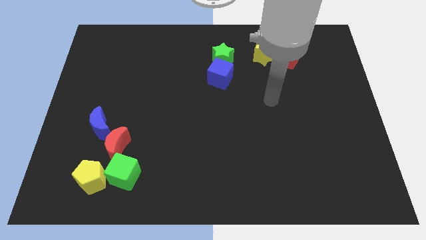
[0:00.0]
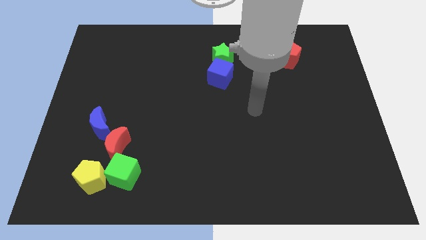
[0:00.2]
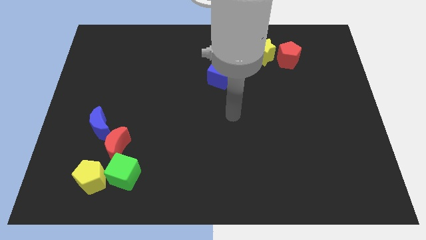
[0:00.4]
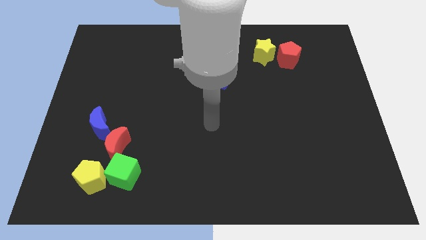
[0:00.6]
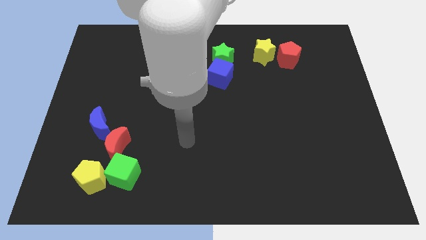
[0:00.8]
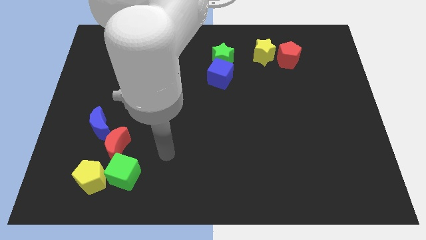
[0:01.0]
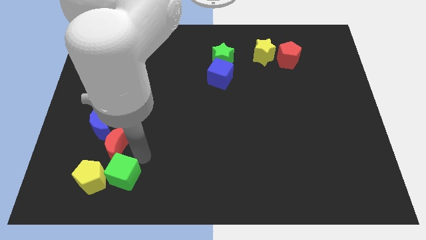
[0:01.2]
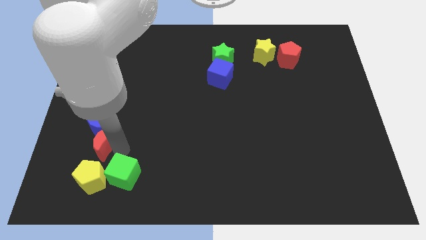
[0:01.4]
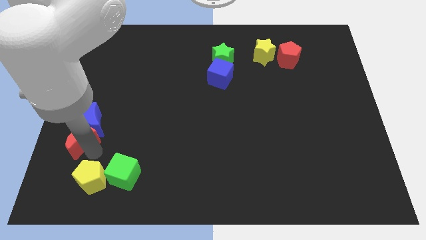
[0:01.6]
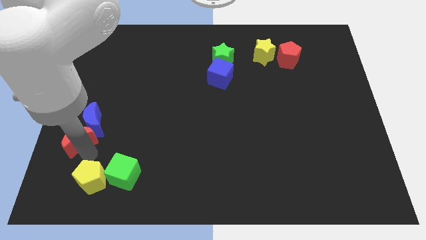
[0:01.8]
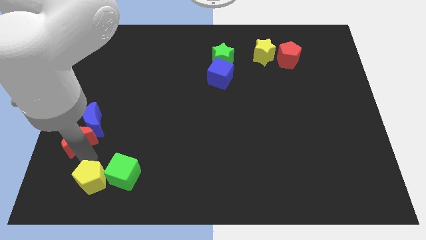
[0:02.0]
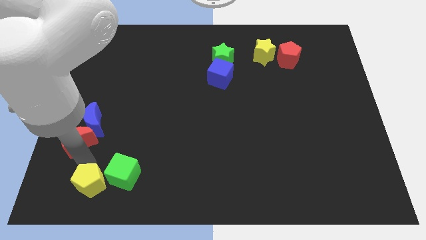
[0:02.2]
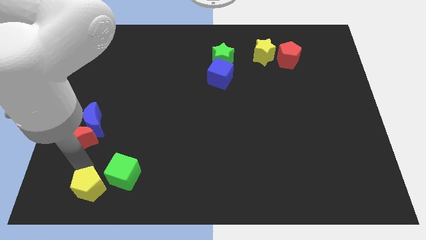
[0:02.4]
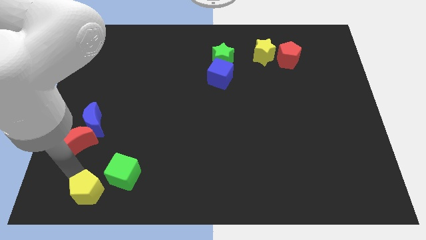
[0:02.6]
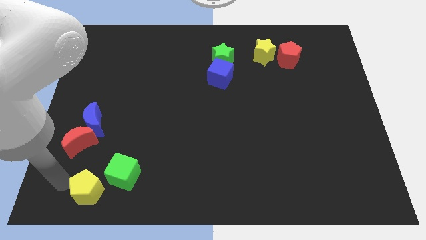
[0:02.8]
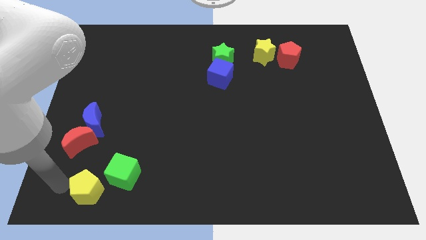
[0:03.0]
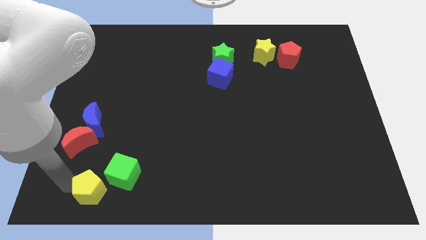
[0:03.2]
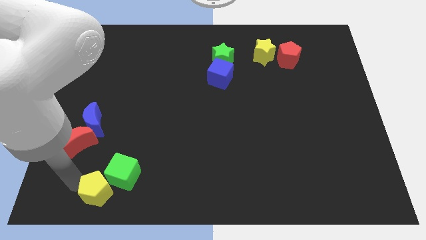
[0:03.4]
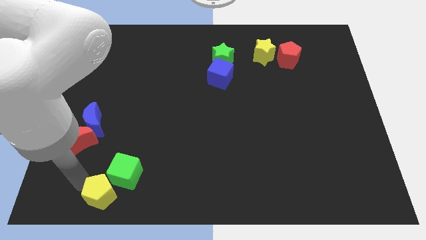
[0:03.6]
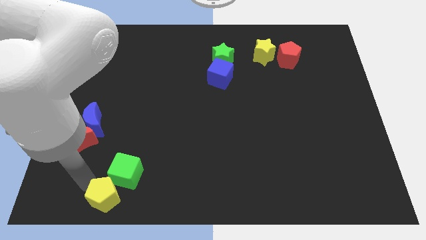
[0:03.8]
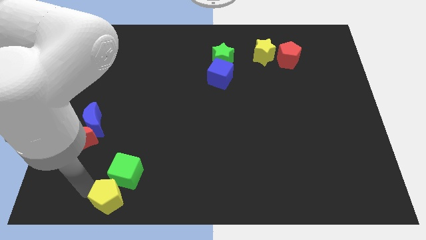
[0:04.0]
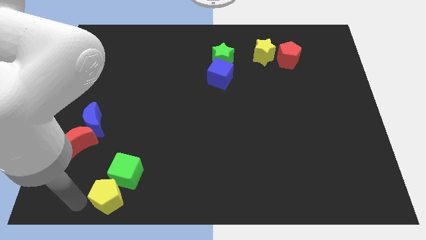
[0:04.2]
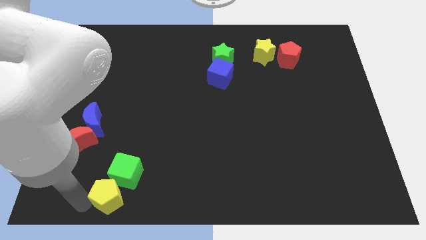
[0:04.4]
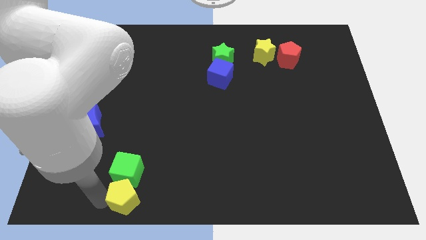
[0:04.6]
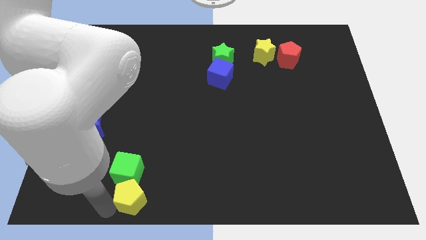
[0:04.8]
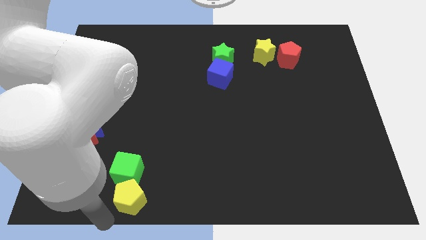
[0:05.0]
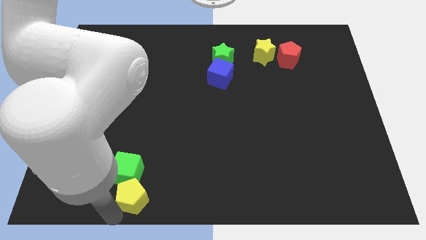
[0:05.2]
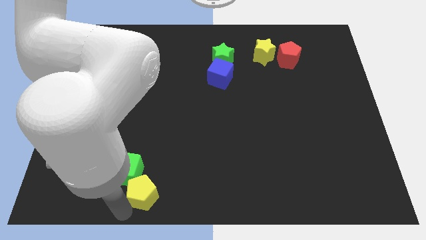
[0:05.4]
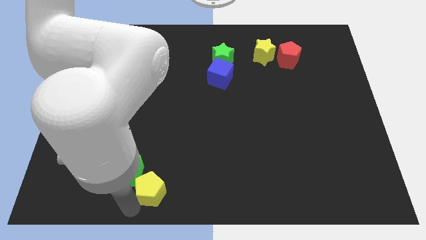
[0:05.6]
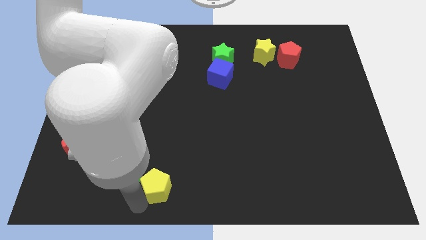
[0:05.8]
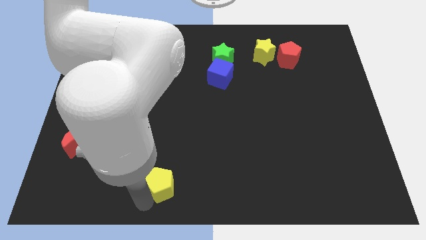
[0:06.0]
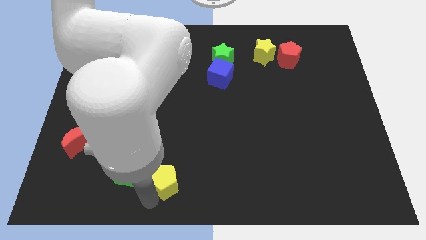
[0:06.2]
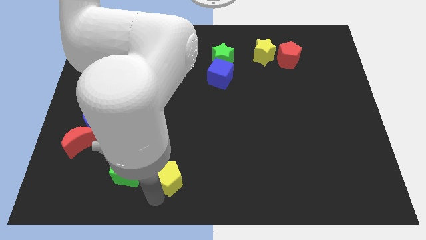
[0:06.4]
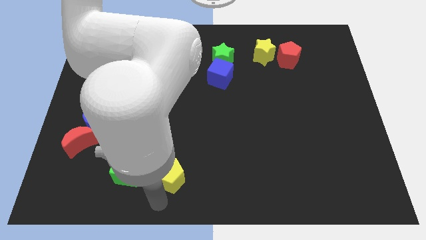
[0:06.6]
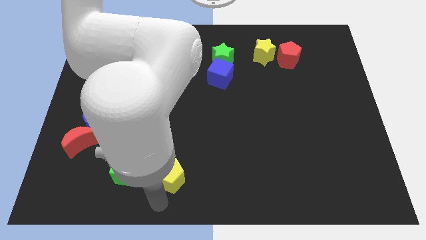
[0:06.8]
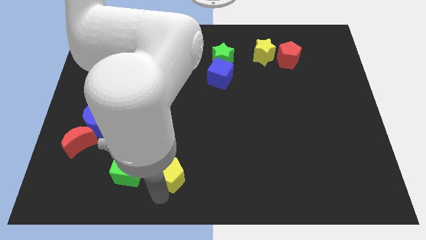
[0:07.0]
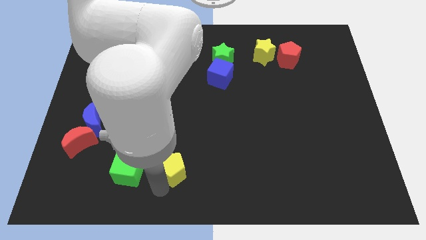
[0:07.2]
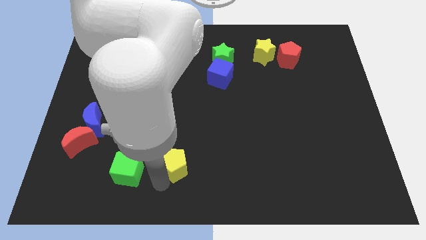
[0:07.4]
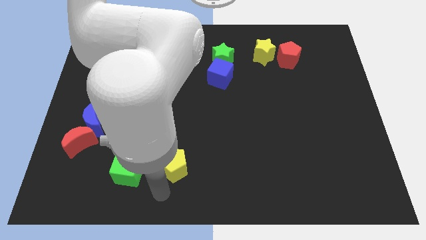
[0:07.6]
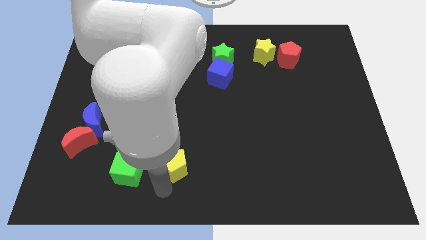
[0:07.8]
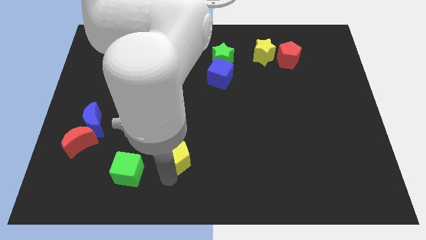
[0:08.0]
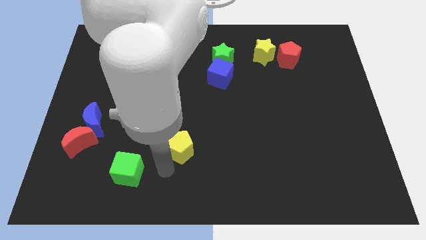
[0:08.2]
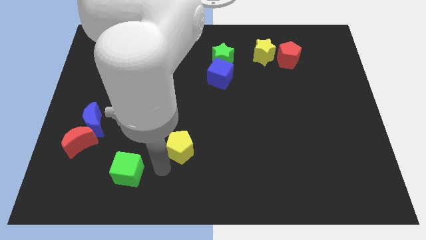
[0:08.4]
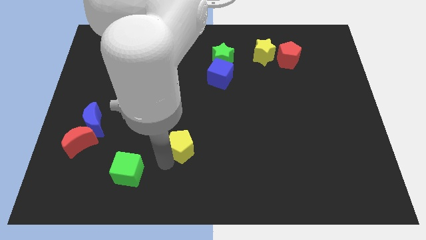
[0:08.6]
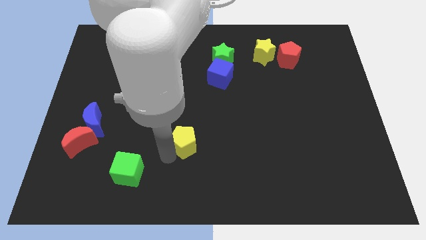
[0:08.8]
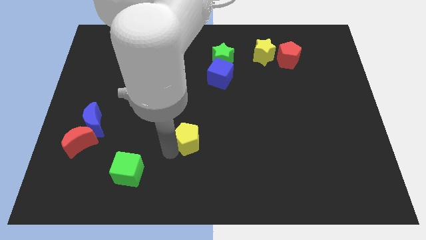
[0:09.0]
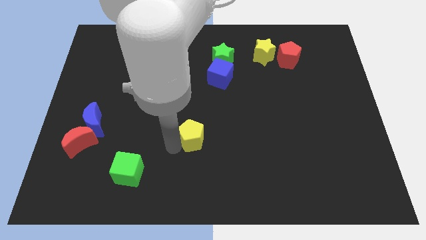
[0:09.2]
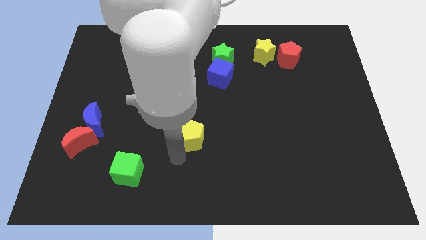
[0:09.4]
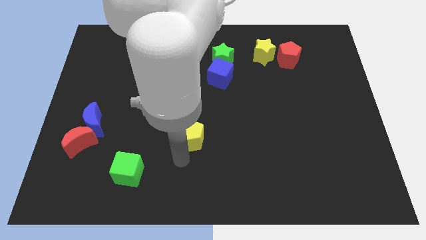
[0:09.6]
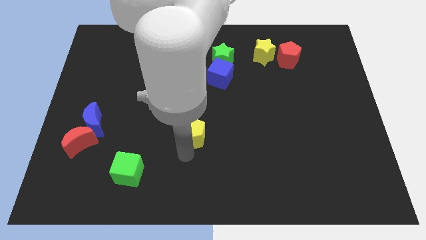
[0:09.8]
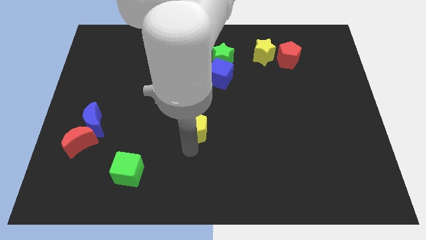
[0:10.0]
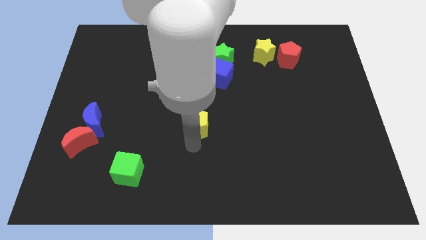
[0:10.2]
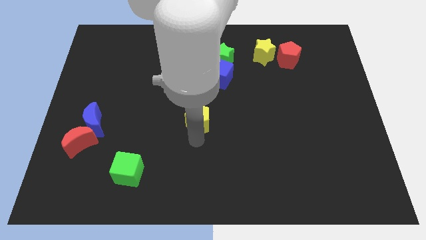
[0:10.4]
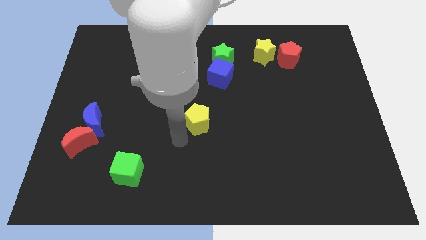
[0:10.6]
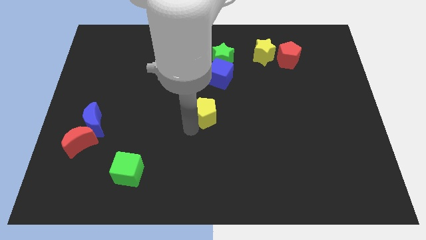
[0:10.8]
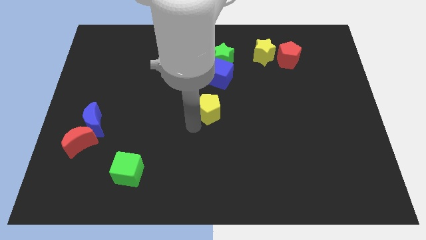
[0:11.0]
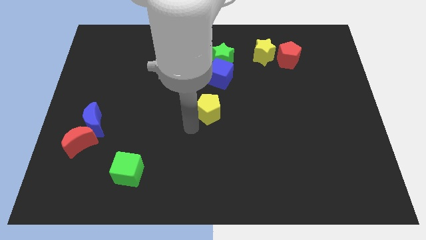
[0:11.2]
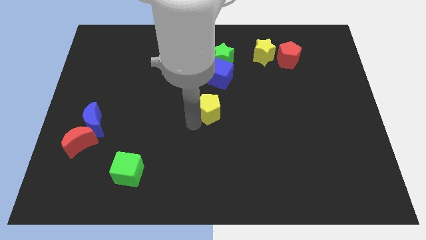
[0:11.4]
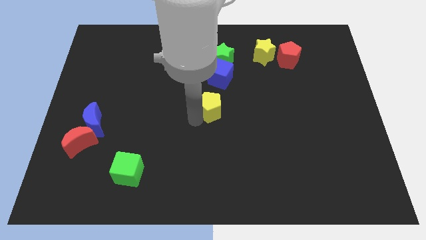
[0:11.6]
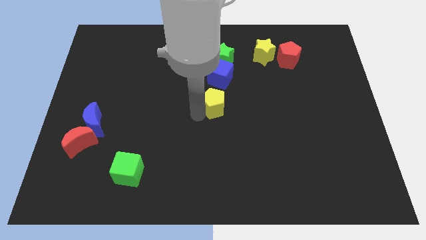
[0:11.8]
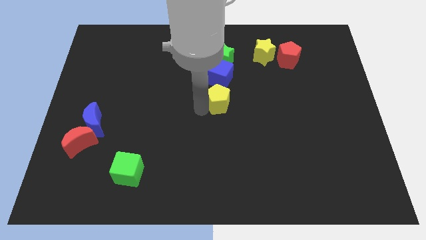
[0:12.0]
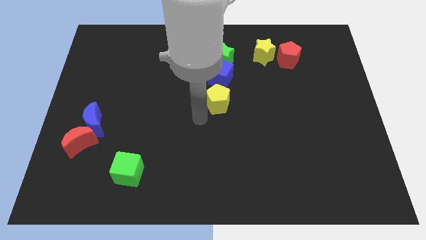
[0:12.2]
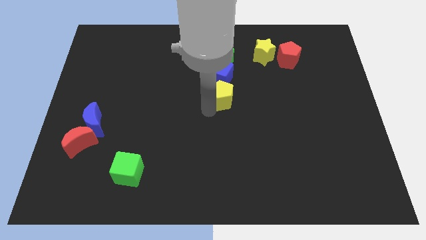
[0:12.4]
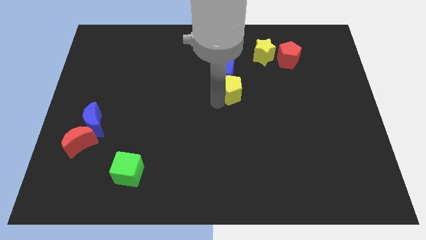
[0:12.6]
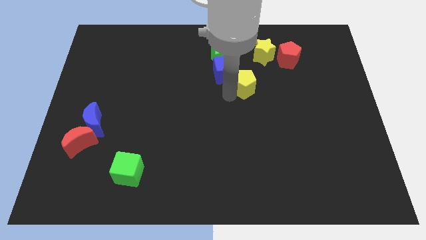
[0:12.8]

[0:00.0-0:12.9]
push the yellow pentagon diagonally down and to the right of the green star
